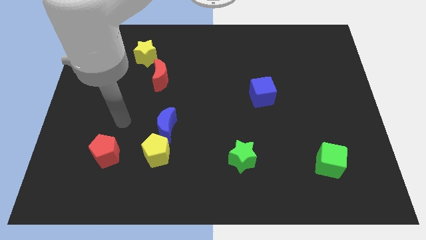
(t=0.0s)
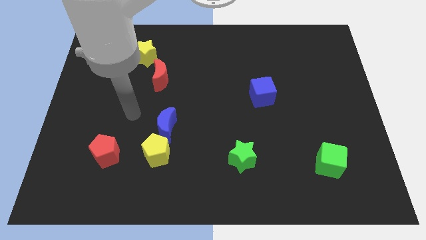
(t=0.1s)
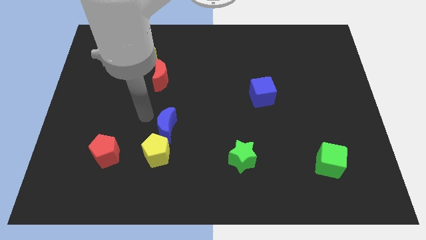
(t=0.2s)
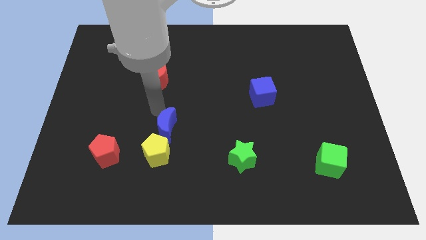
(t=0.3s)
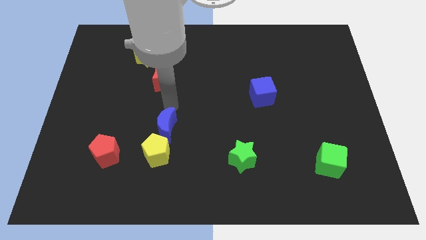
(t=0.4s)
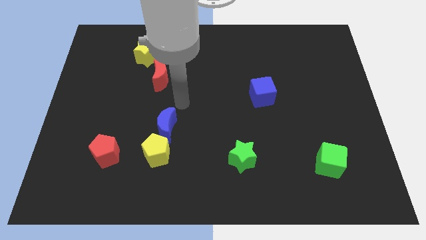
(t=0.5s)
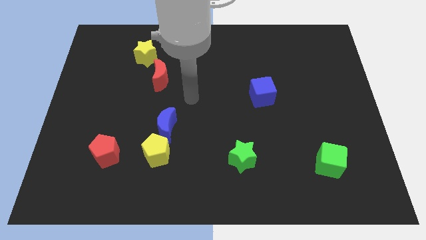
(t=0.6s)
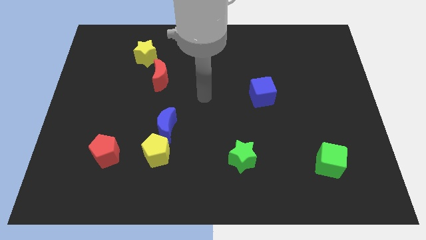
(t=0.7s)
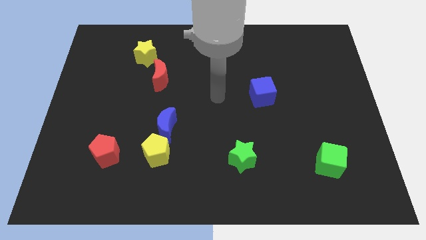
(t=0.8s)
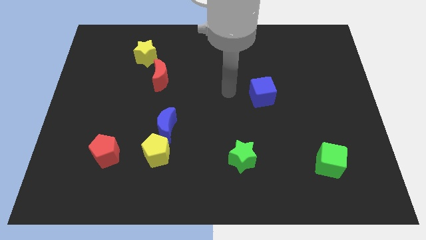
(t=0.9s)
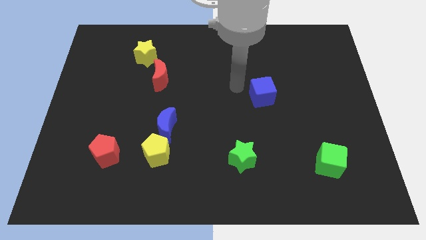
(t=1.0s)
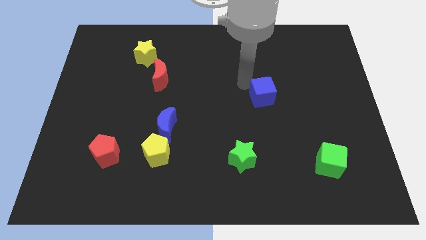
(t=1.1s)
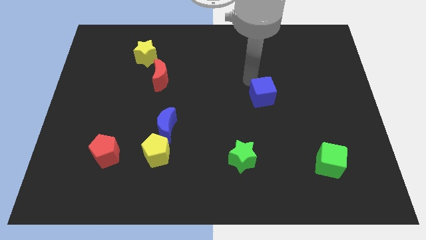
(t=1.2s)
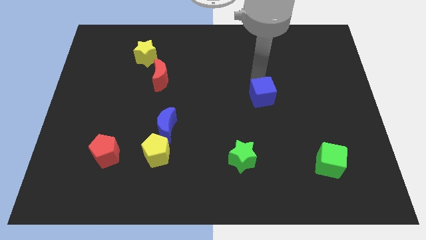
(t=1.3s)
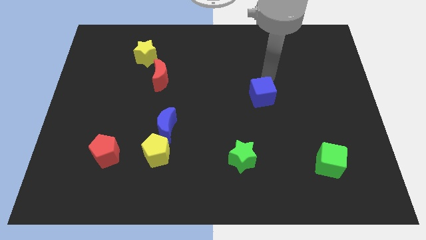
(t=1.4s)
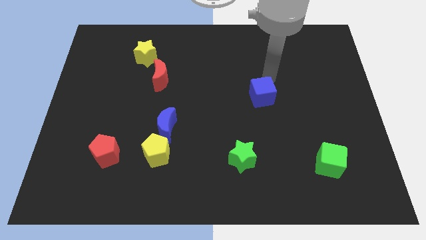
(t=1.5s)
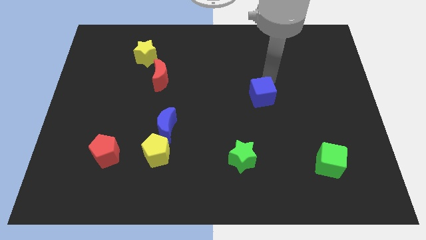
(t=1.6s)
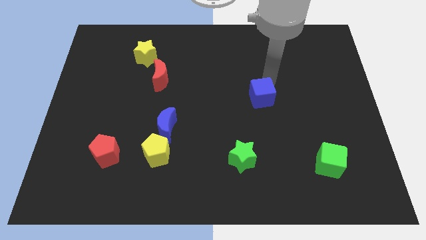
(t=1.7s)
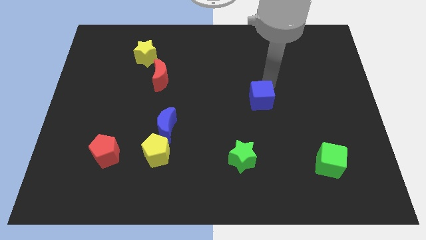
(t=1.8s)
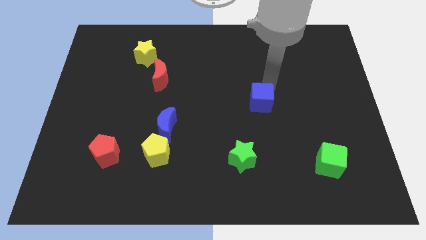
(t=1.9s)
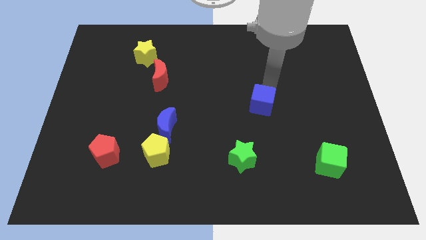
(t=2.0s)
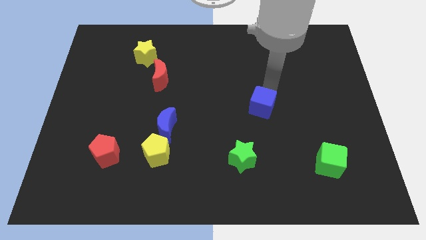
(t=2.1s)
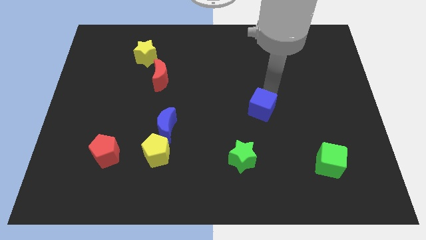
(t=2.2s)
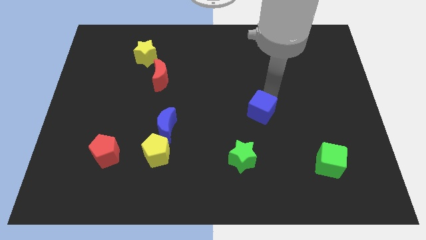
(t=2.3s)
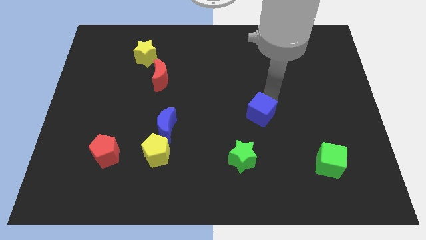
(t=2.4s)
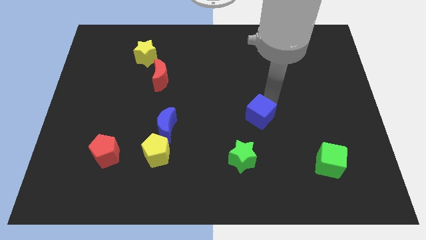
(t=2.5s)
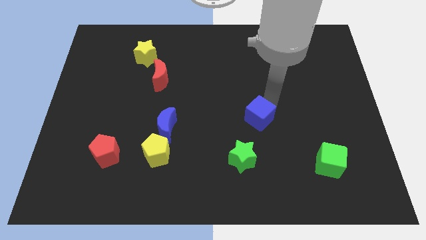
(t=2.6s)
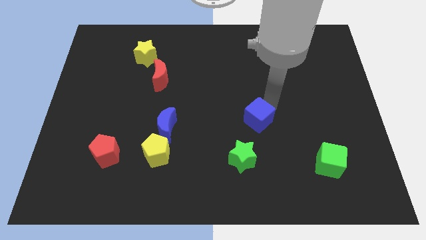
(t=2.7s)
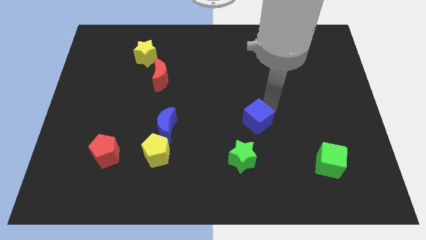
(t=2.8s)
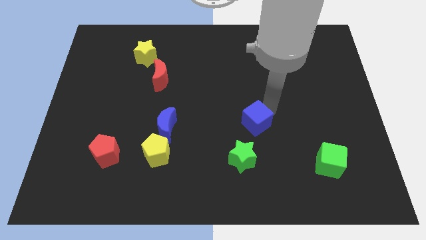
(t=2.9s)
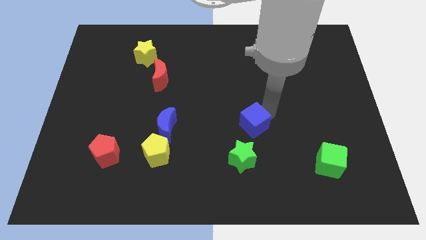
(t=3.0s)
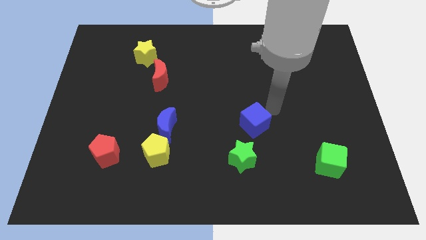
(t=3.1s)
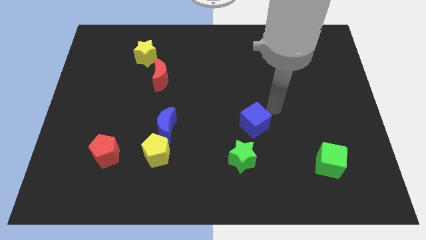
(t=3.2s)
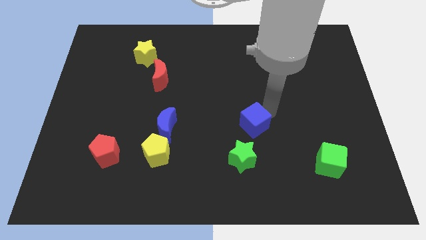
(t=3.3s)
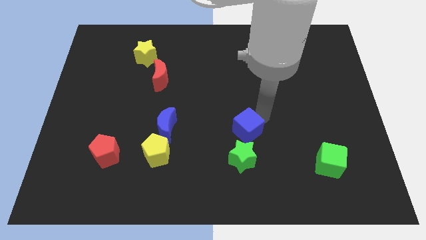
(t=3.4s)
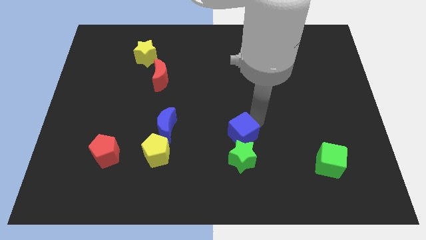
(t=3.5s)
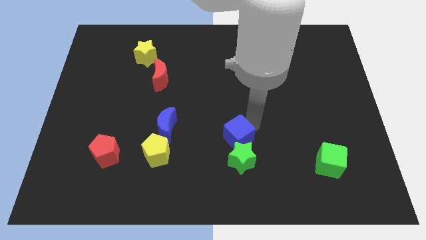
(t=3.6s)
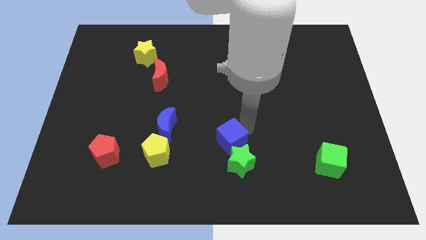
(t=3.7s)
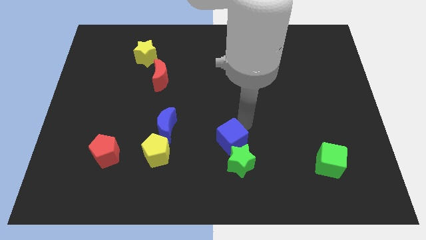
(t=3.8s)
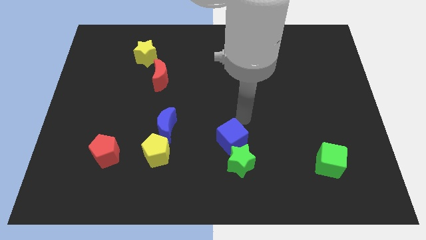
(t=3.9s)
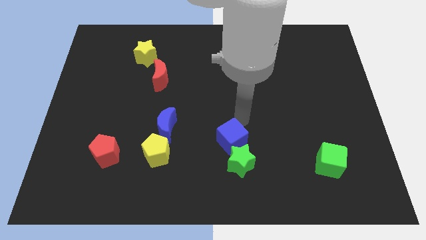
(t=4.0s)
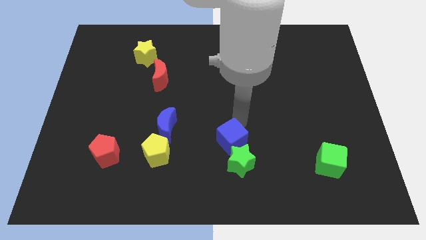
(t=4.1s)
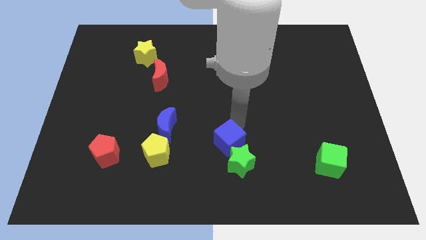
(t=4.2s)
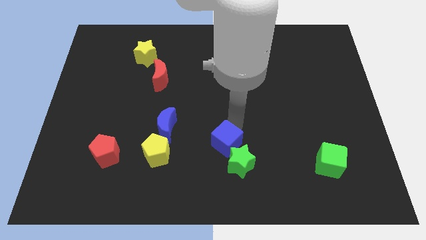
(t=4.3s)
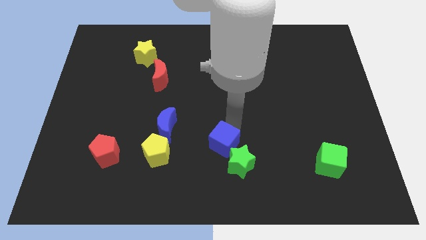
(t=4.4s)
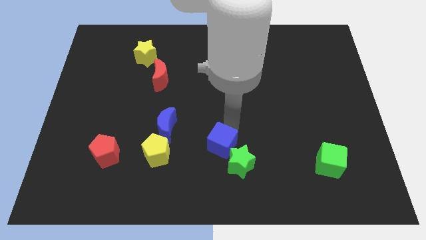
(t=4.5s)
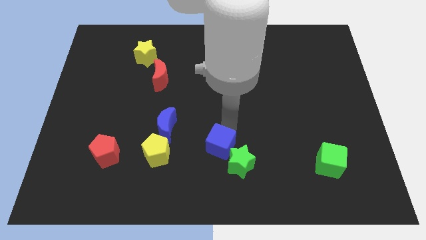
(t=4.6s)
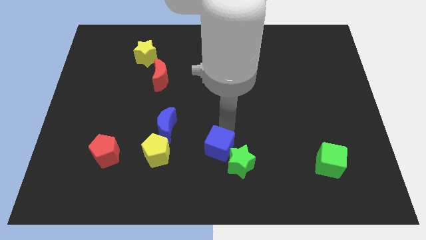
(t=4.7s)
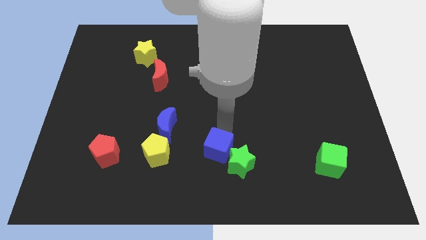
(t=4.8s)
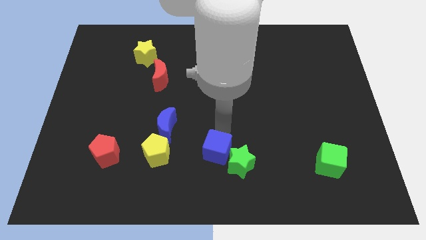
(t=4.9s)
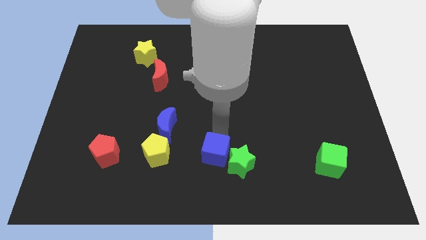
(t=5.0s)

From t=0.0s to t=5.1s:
push the blue cube to the bottom

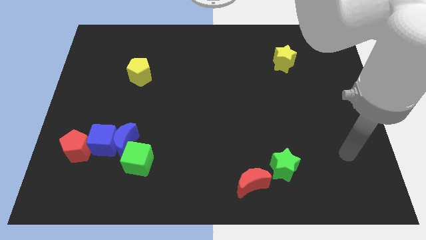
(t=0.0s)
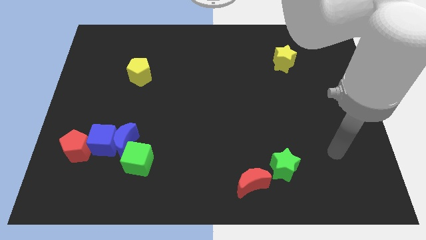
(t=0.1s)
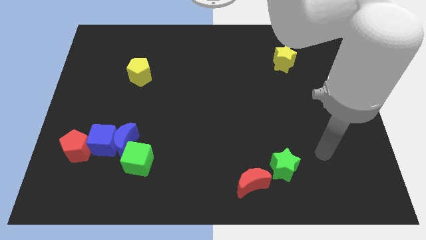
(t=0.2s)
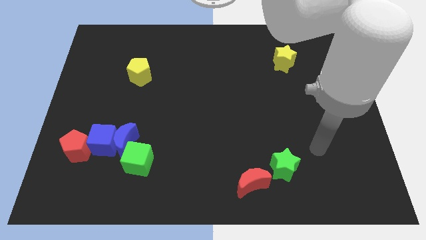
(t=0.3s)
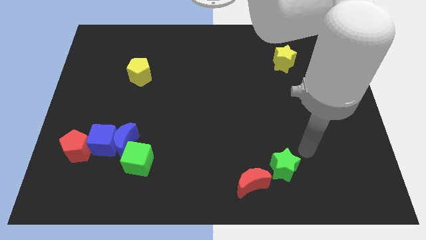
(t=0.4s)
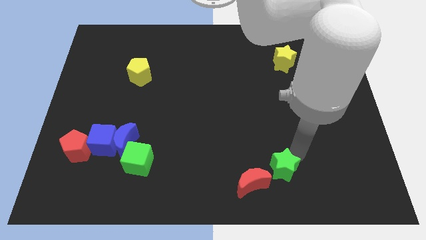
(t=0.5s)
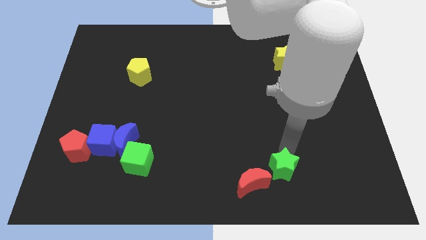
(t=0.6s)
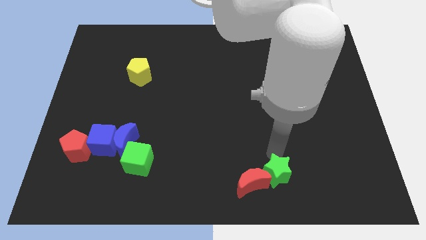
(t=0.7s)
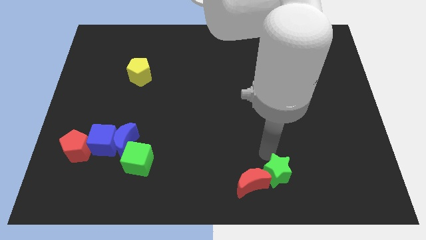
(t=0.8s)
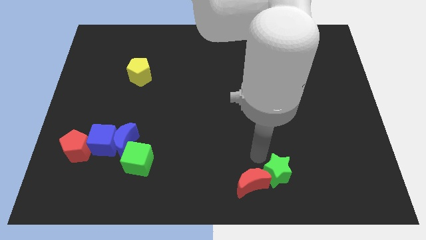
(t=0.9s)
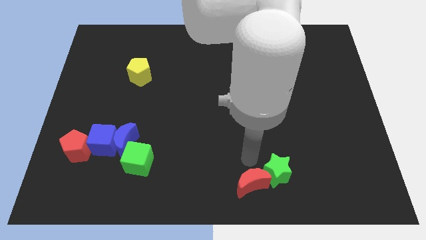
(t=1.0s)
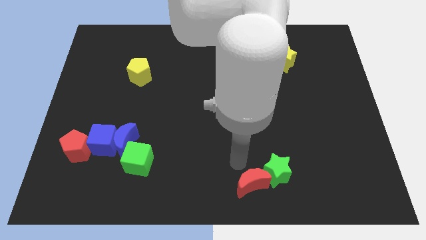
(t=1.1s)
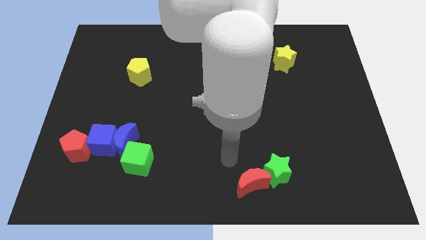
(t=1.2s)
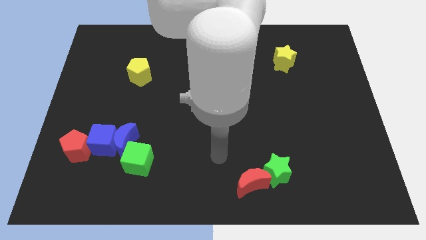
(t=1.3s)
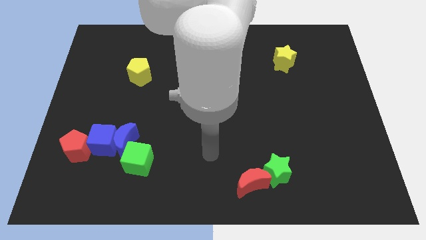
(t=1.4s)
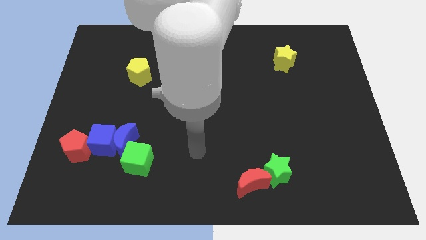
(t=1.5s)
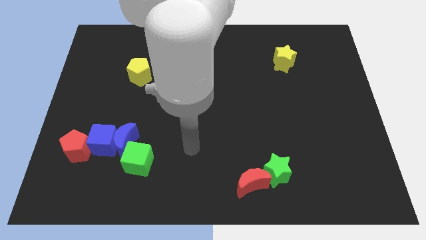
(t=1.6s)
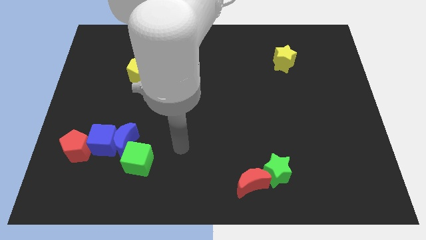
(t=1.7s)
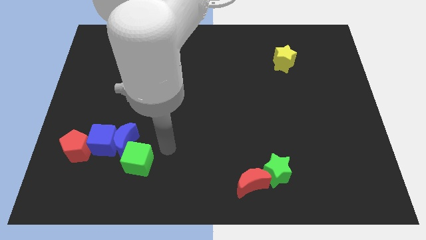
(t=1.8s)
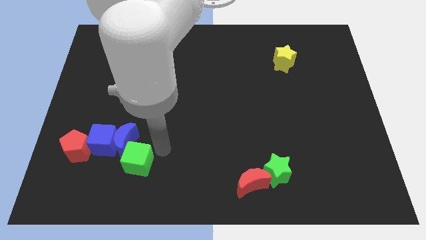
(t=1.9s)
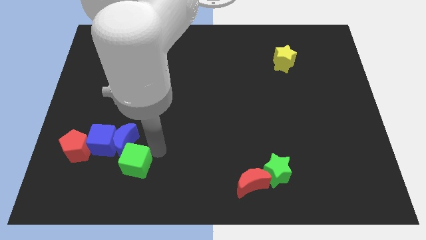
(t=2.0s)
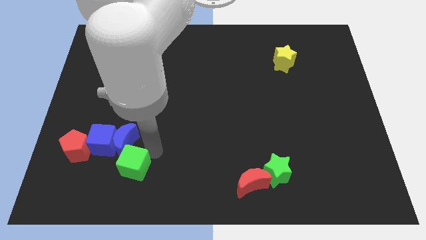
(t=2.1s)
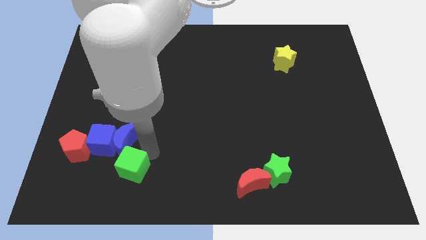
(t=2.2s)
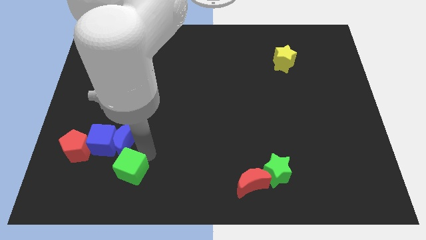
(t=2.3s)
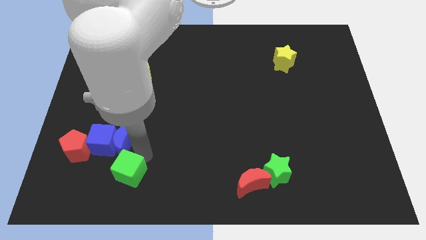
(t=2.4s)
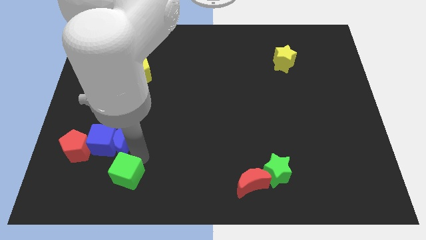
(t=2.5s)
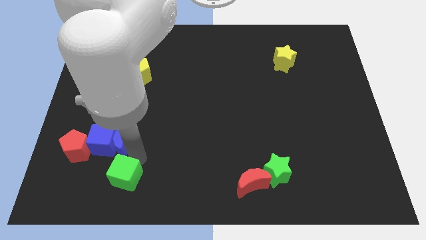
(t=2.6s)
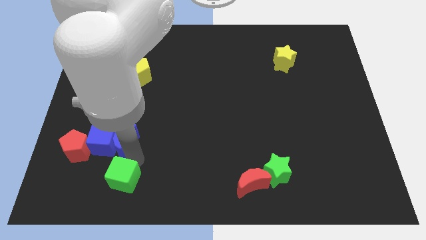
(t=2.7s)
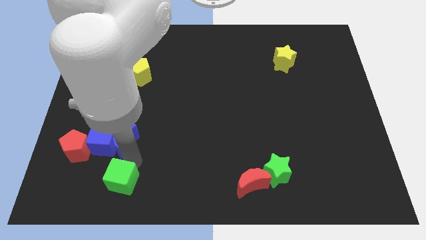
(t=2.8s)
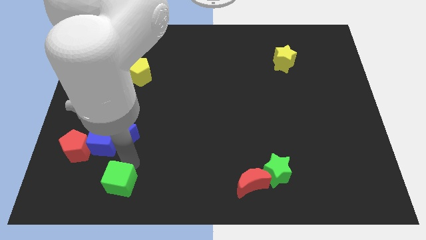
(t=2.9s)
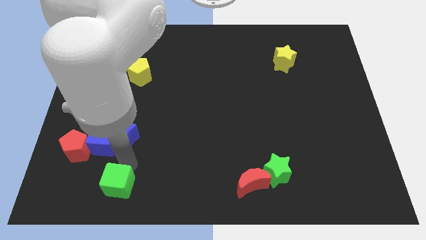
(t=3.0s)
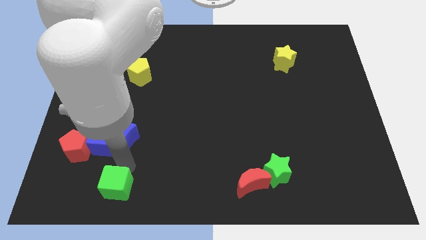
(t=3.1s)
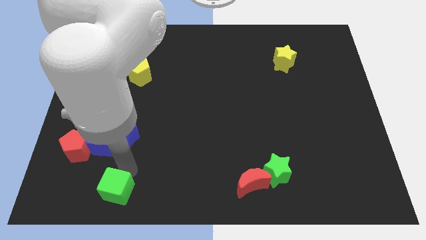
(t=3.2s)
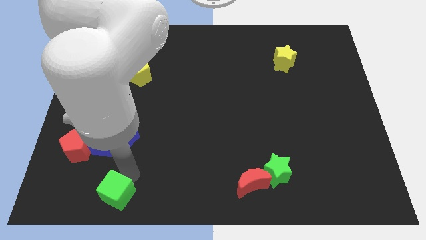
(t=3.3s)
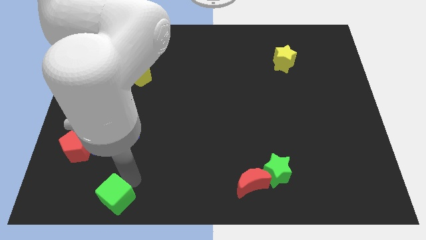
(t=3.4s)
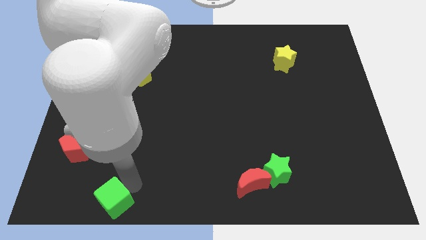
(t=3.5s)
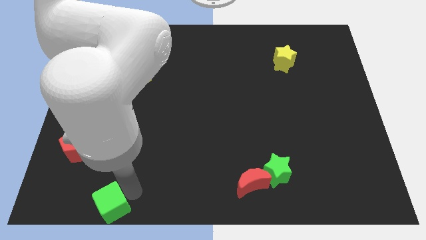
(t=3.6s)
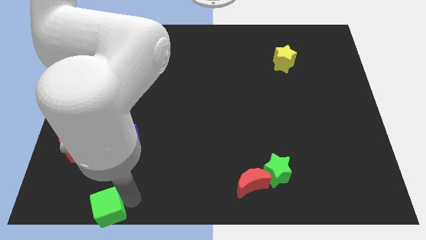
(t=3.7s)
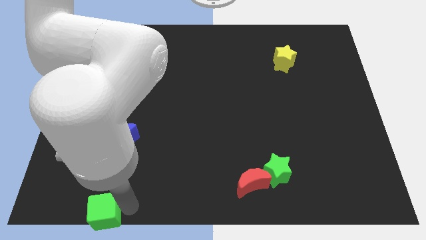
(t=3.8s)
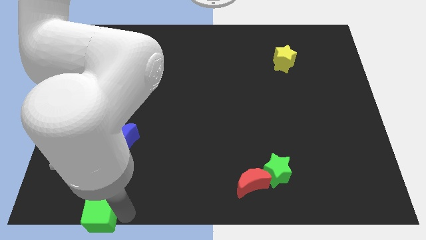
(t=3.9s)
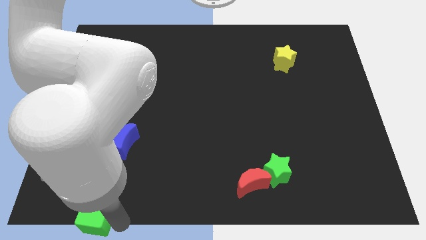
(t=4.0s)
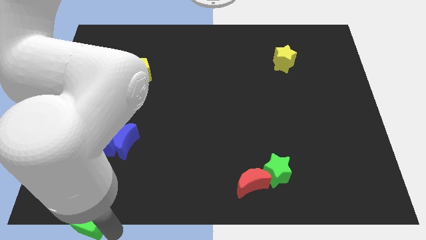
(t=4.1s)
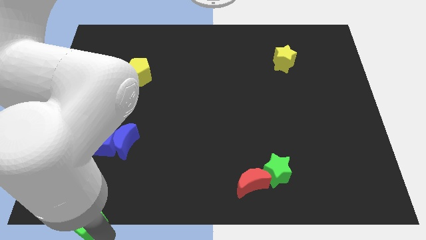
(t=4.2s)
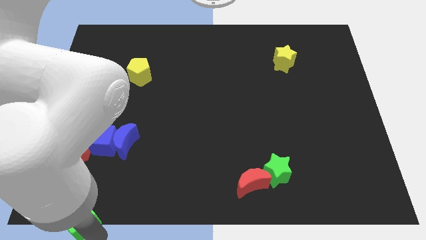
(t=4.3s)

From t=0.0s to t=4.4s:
move the green cube to the bottom left of the board
